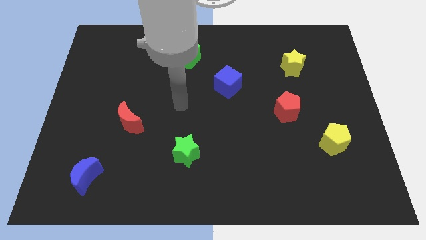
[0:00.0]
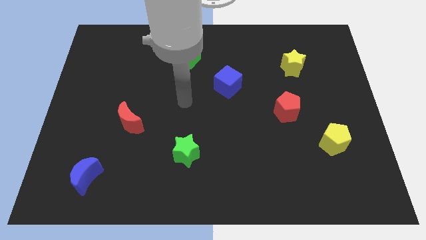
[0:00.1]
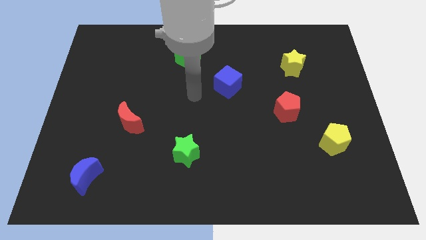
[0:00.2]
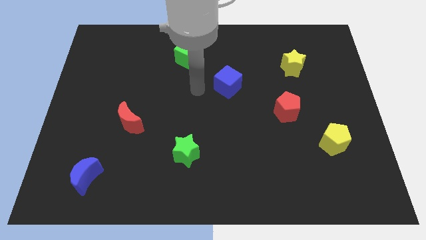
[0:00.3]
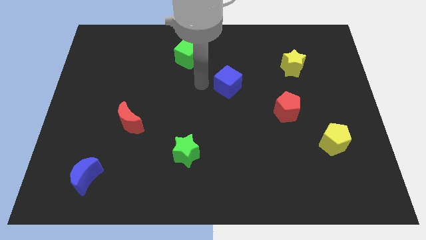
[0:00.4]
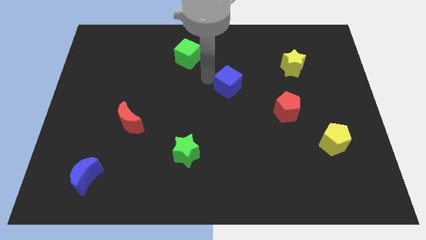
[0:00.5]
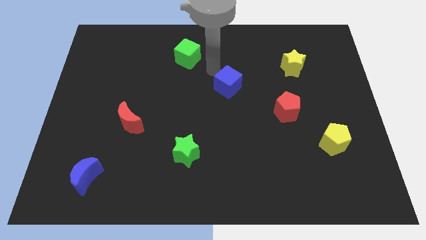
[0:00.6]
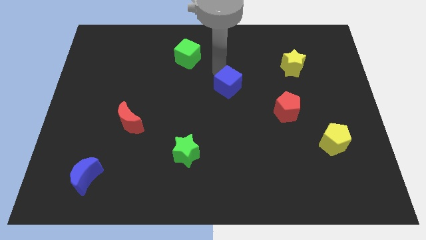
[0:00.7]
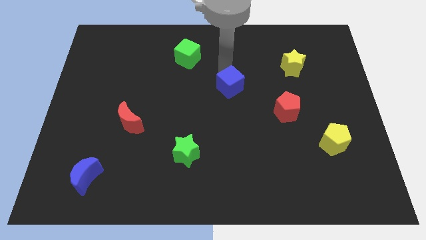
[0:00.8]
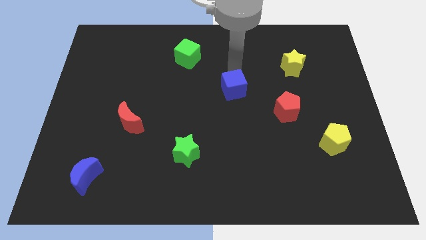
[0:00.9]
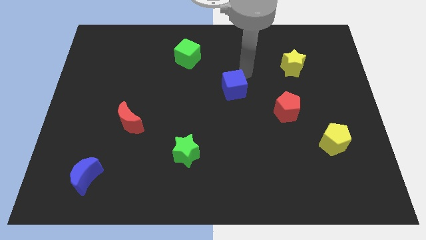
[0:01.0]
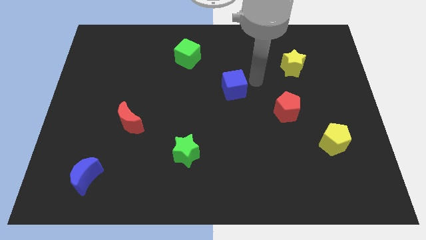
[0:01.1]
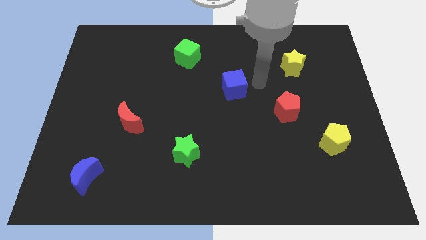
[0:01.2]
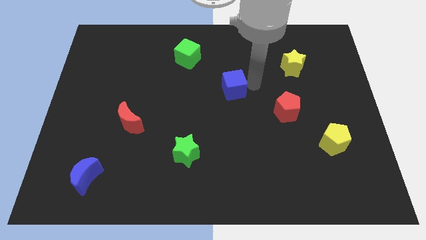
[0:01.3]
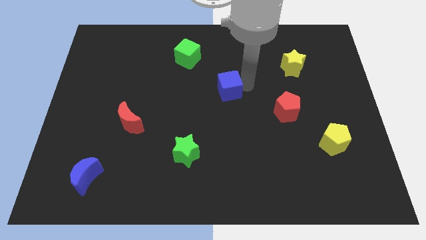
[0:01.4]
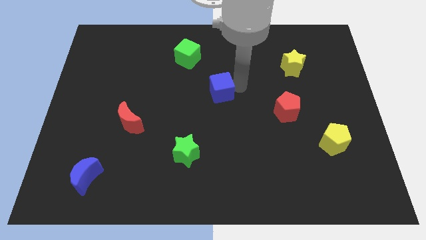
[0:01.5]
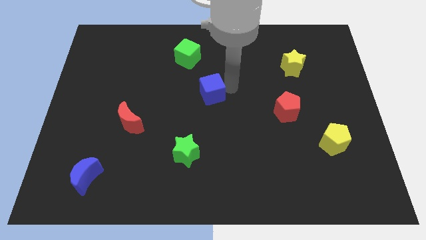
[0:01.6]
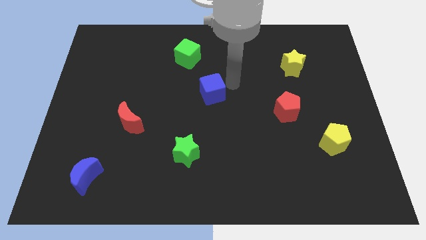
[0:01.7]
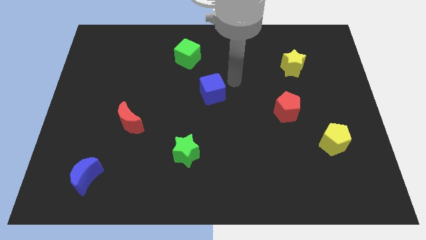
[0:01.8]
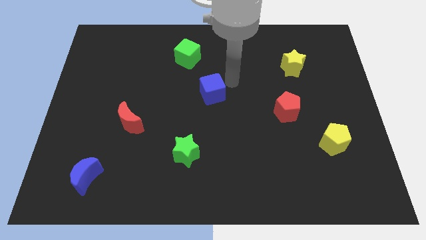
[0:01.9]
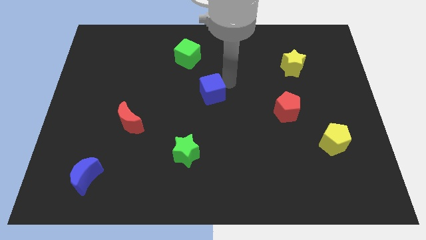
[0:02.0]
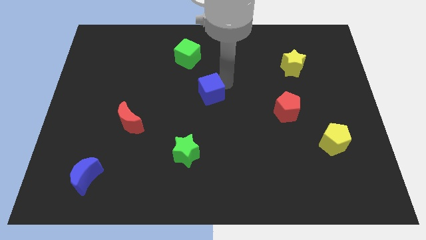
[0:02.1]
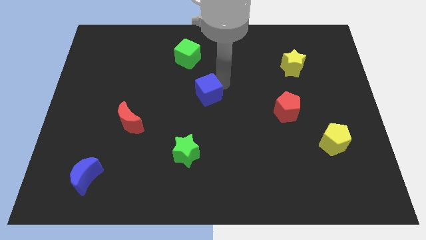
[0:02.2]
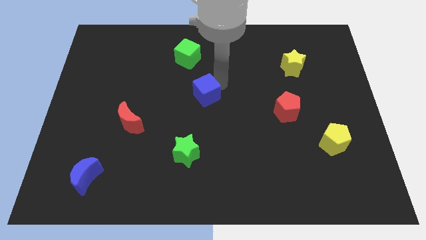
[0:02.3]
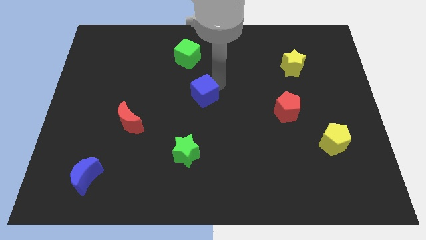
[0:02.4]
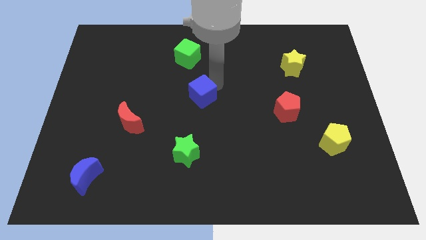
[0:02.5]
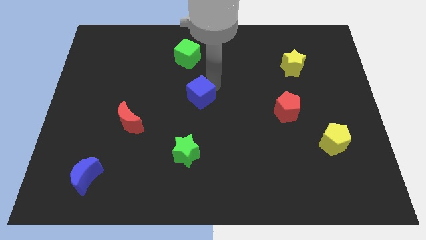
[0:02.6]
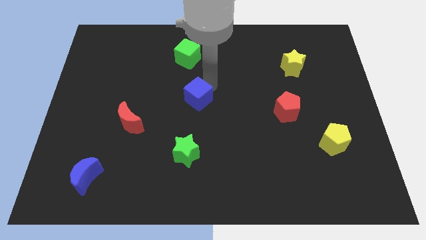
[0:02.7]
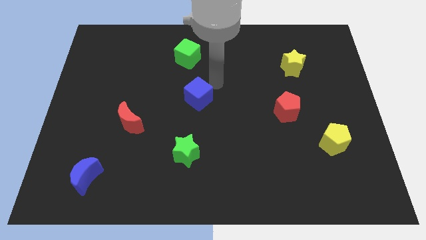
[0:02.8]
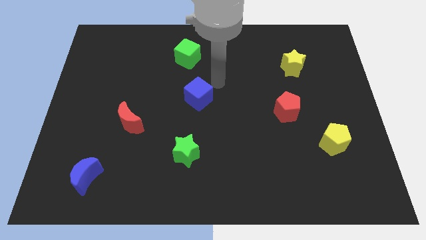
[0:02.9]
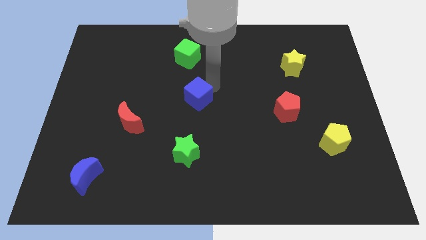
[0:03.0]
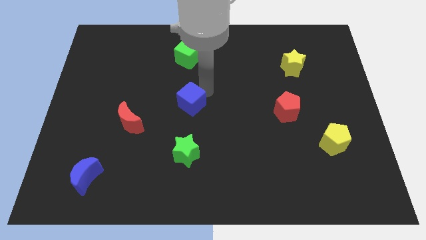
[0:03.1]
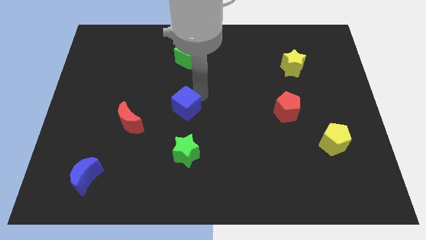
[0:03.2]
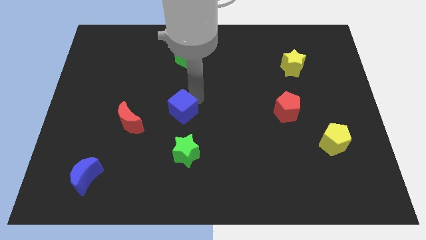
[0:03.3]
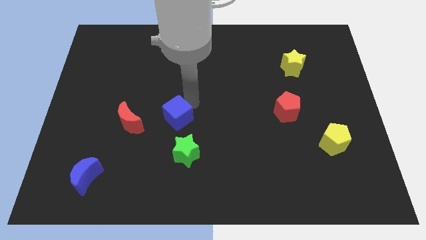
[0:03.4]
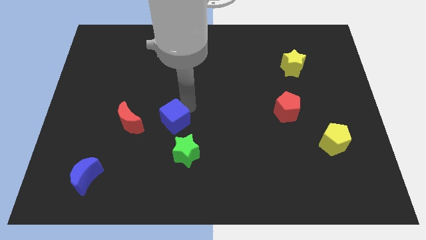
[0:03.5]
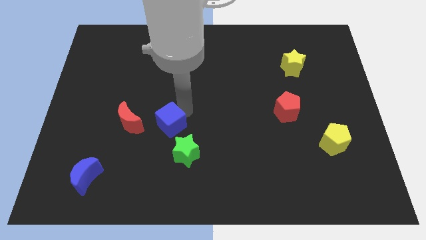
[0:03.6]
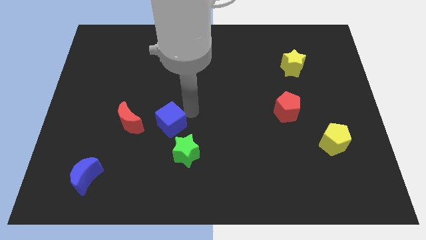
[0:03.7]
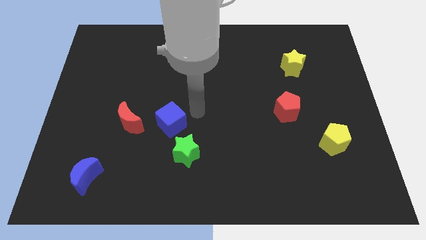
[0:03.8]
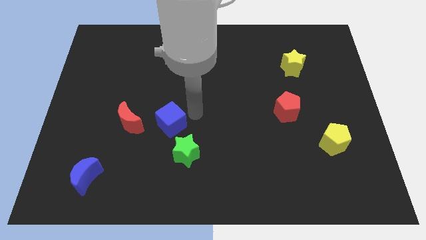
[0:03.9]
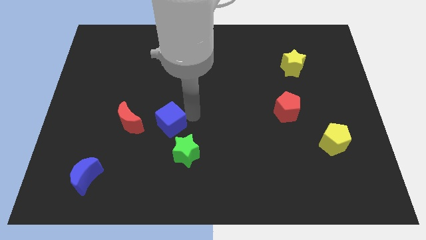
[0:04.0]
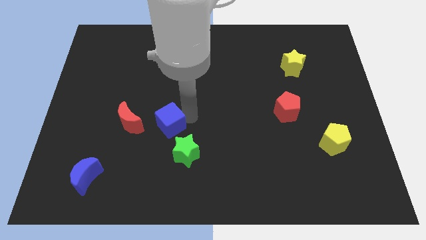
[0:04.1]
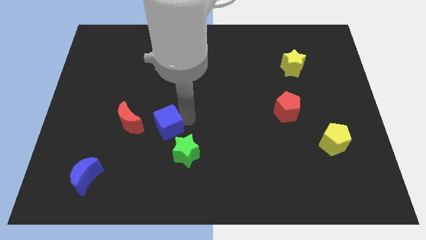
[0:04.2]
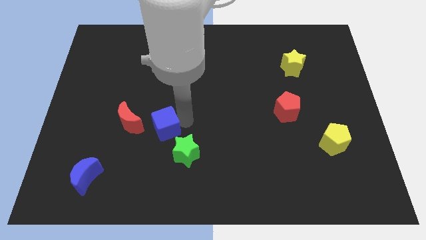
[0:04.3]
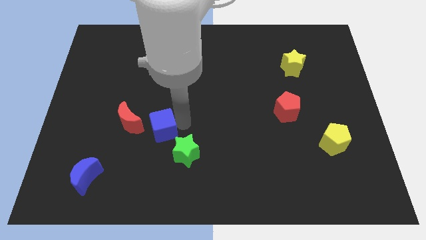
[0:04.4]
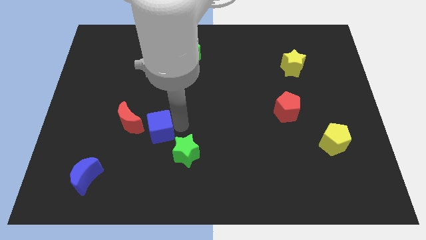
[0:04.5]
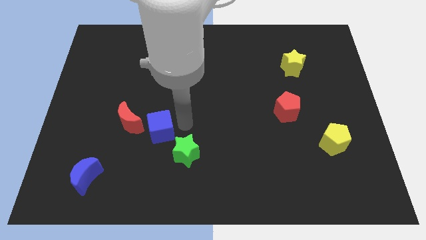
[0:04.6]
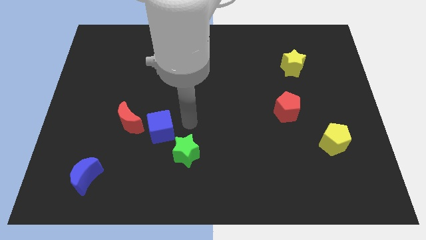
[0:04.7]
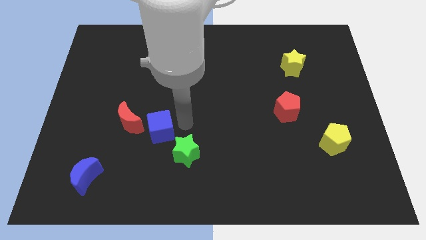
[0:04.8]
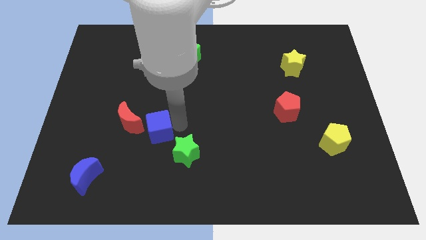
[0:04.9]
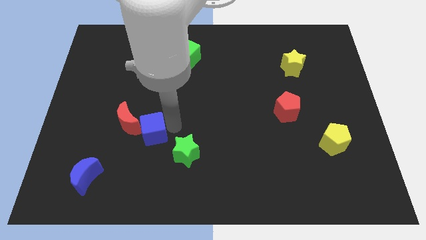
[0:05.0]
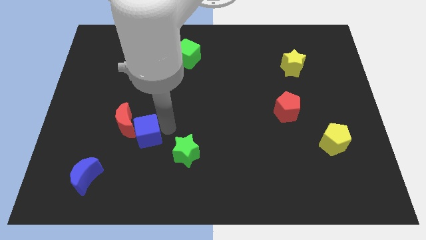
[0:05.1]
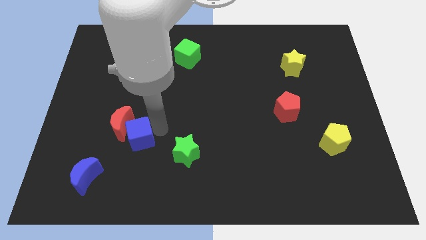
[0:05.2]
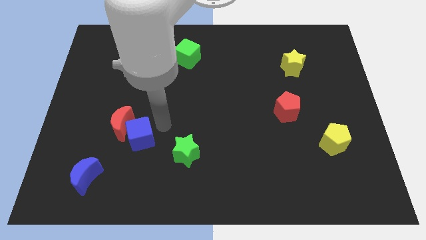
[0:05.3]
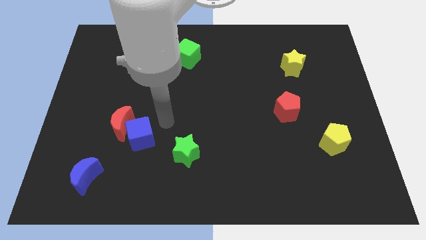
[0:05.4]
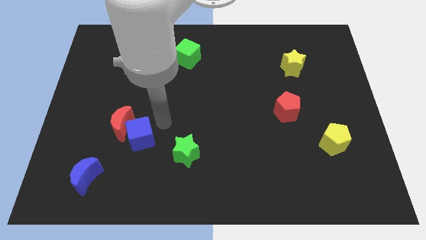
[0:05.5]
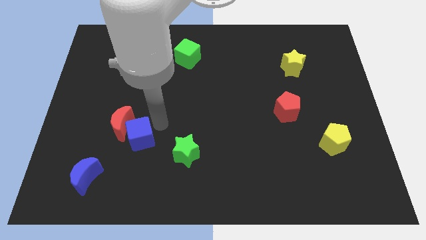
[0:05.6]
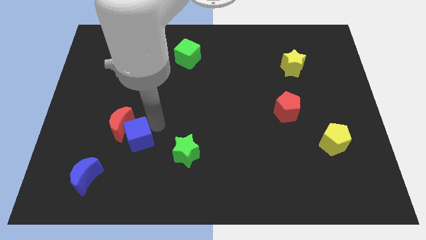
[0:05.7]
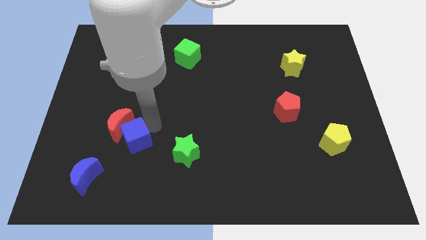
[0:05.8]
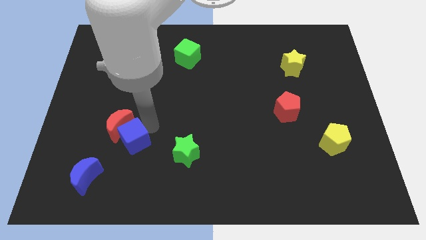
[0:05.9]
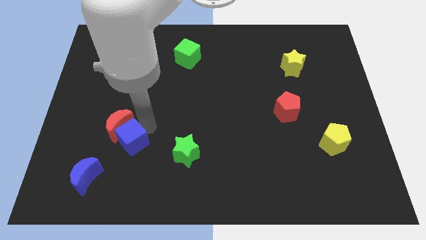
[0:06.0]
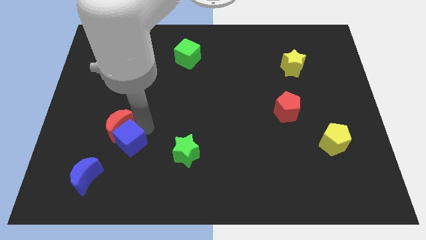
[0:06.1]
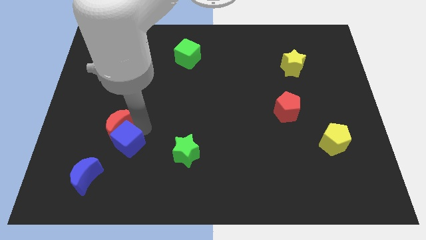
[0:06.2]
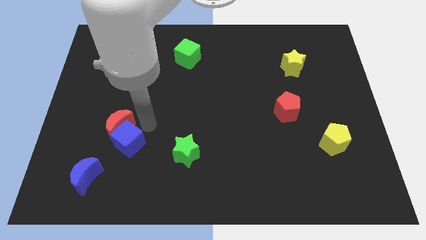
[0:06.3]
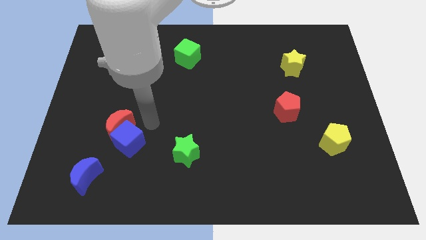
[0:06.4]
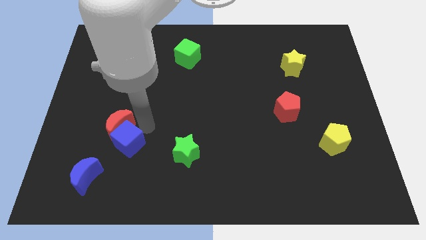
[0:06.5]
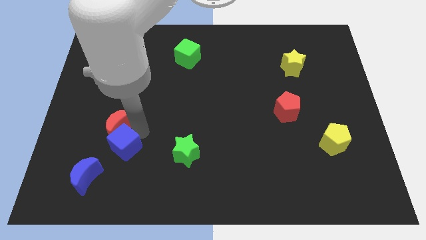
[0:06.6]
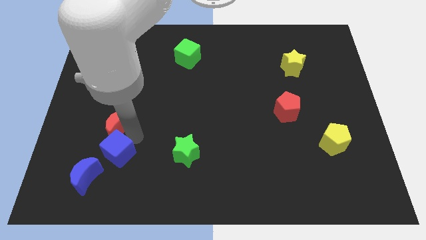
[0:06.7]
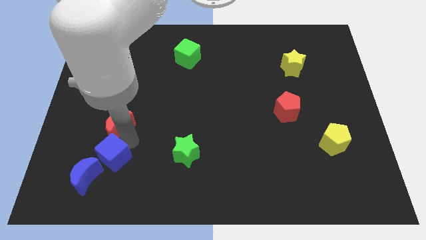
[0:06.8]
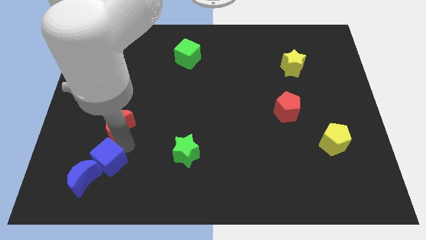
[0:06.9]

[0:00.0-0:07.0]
slide the blue cube next to the blue moon

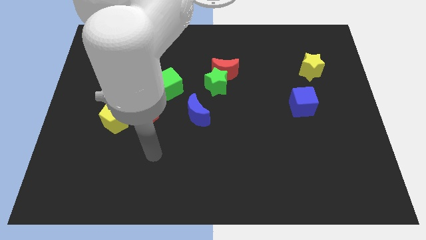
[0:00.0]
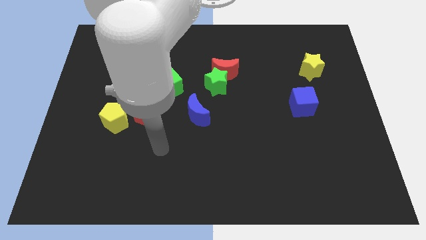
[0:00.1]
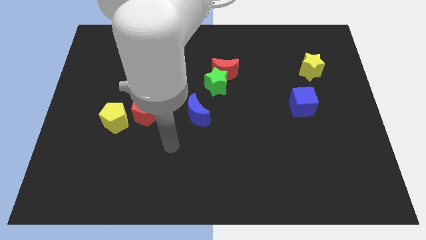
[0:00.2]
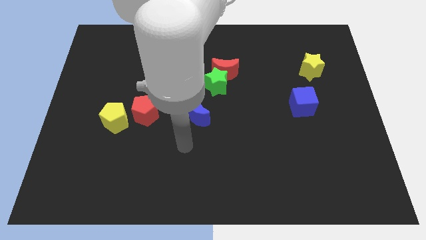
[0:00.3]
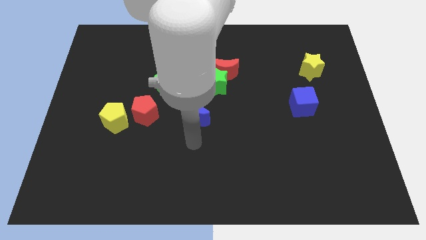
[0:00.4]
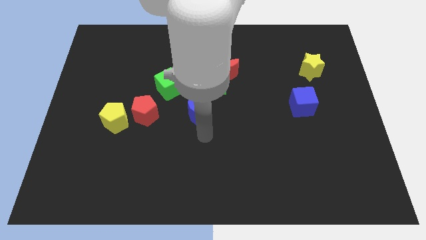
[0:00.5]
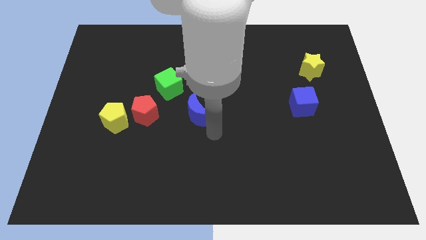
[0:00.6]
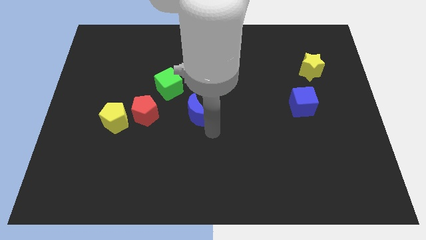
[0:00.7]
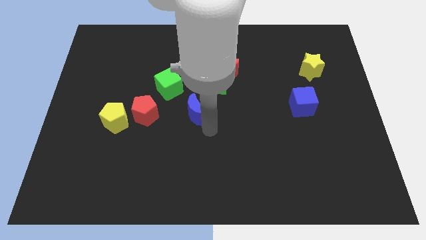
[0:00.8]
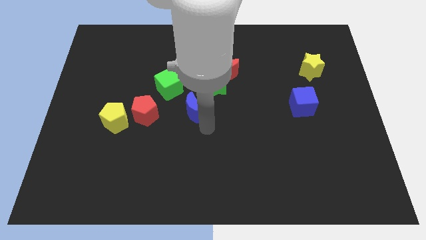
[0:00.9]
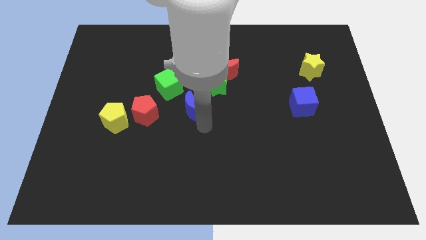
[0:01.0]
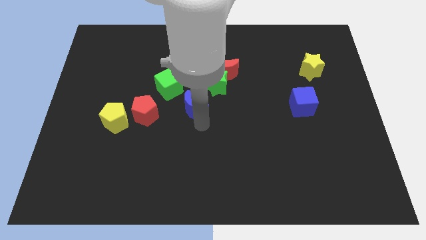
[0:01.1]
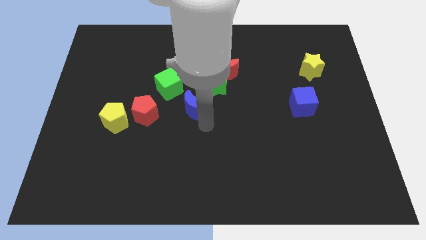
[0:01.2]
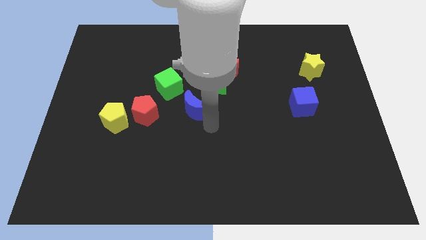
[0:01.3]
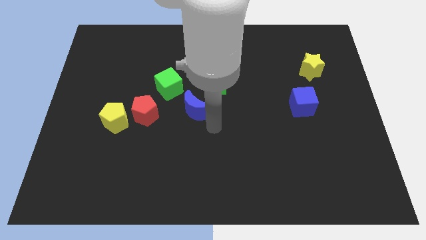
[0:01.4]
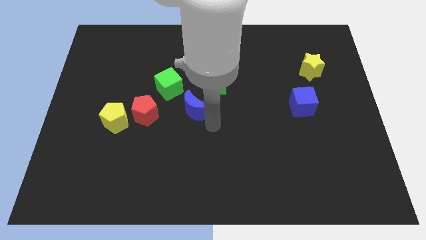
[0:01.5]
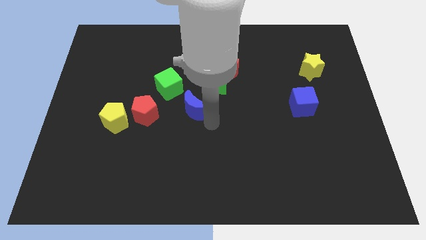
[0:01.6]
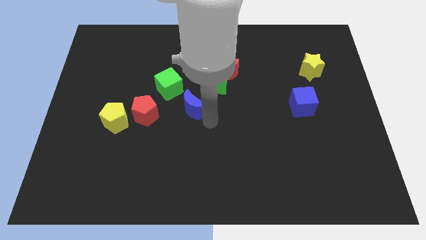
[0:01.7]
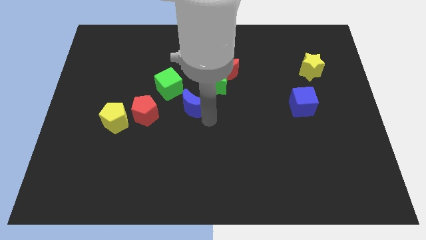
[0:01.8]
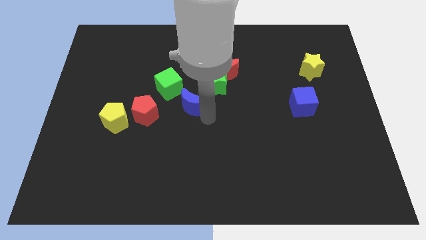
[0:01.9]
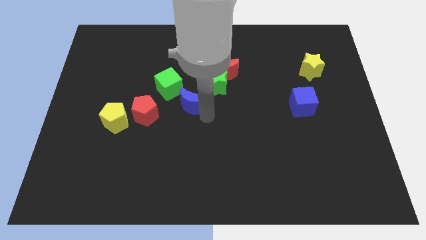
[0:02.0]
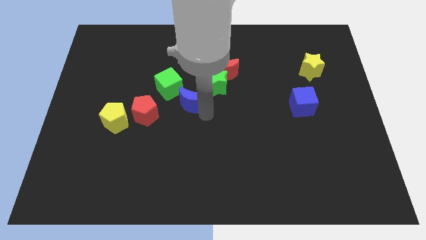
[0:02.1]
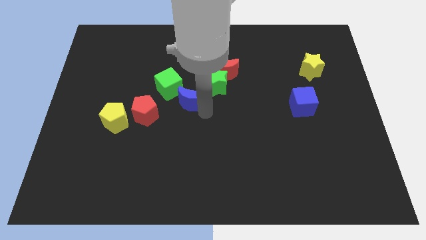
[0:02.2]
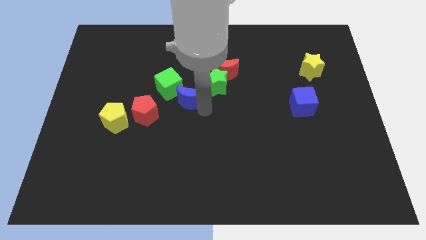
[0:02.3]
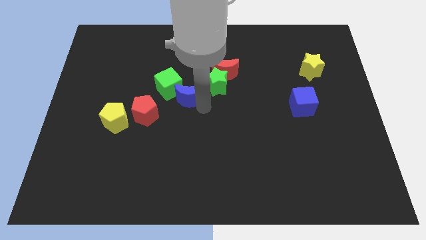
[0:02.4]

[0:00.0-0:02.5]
push the blue moon close to the green cube
